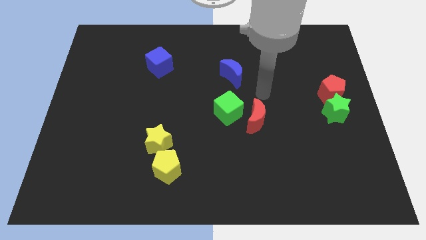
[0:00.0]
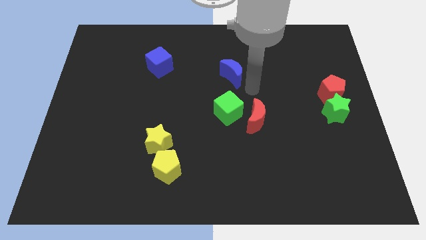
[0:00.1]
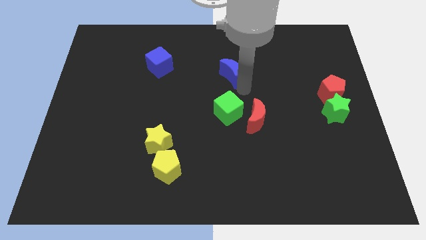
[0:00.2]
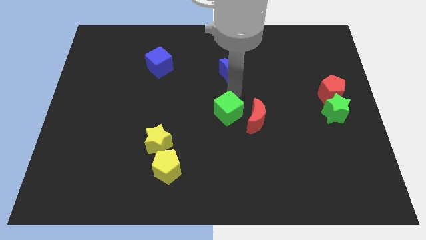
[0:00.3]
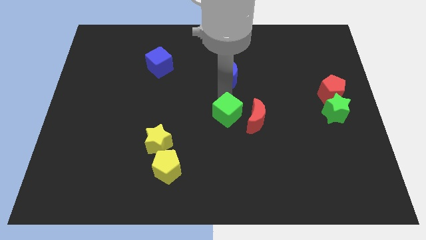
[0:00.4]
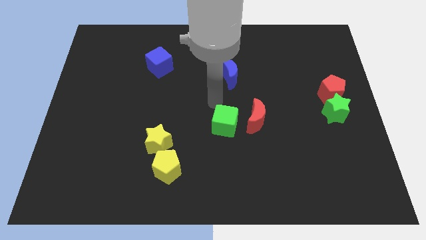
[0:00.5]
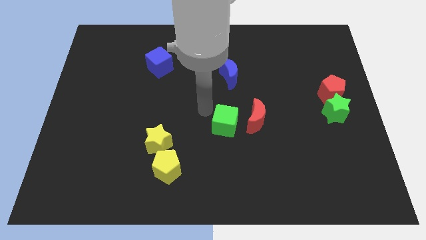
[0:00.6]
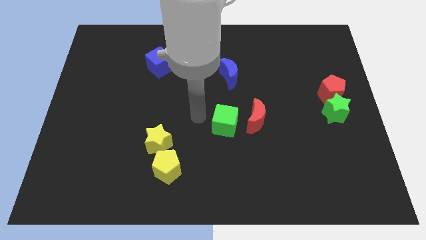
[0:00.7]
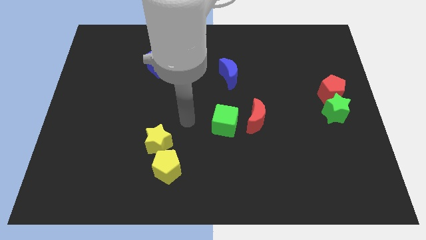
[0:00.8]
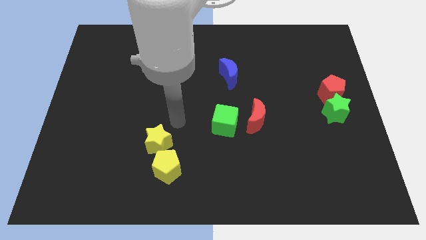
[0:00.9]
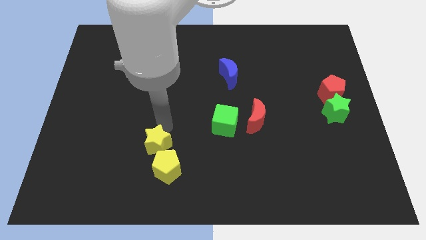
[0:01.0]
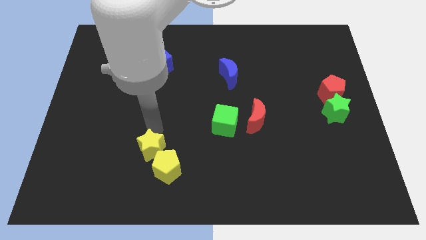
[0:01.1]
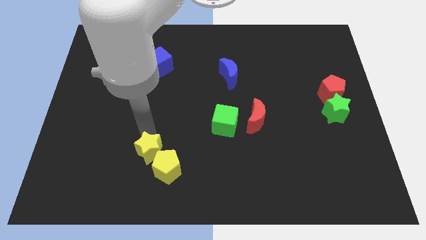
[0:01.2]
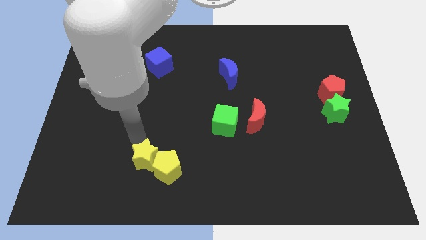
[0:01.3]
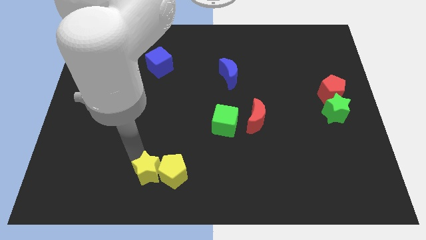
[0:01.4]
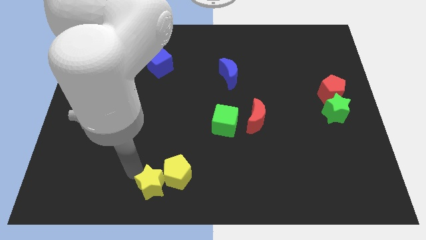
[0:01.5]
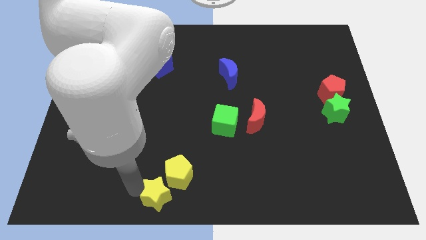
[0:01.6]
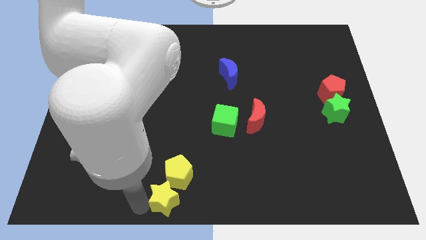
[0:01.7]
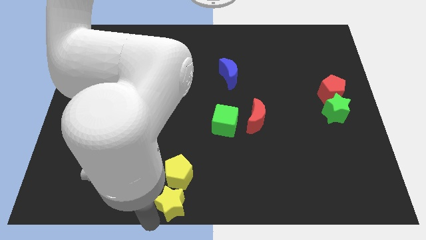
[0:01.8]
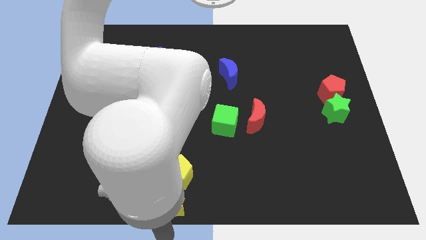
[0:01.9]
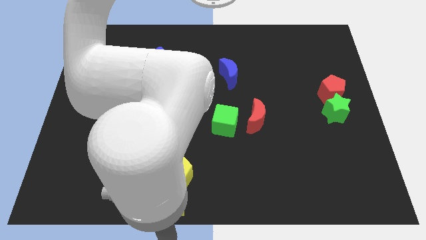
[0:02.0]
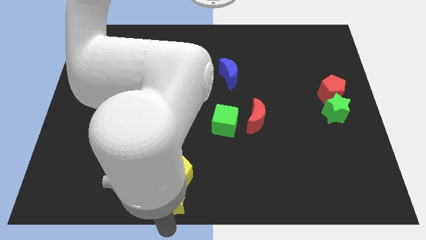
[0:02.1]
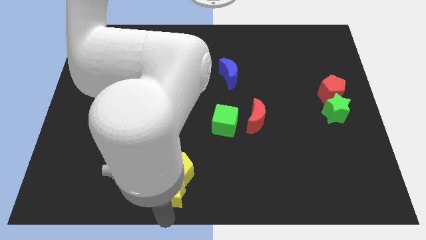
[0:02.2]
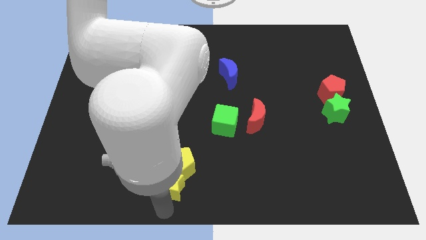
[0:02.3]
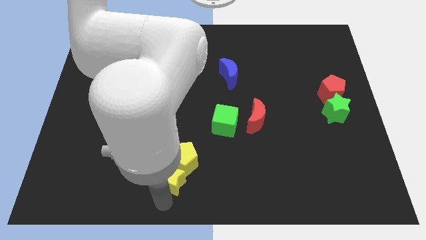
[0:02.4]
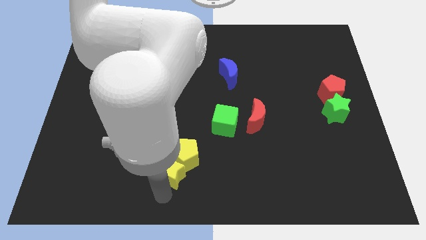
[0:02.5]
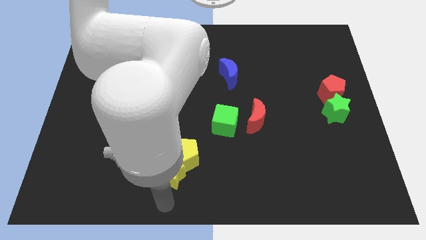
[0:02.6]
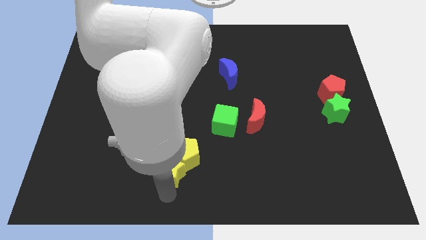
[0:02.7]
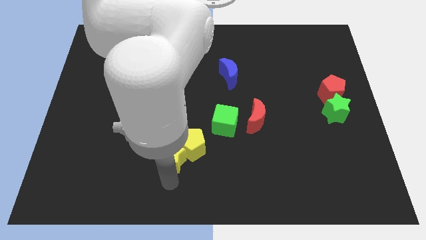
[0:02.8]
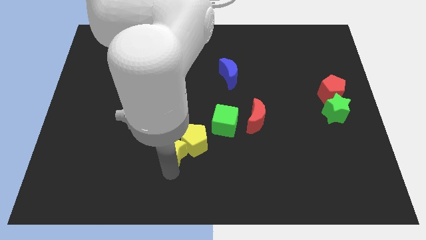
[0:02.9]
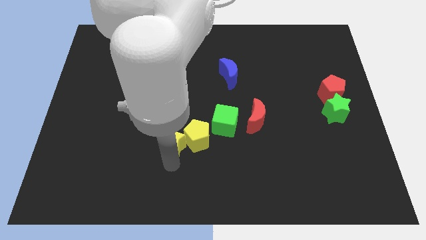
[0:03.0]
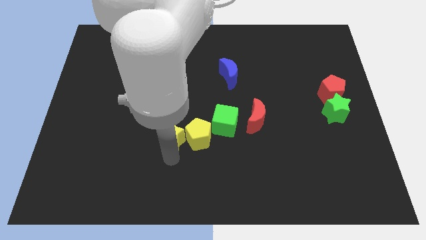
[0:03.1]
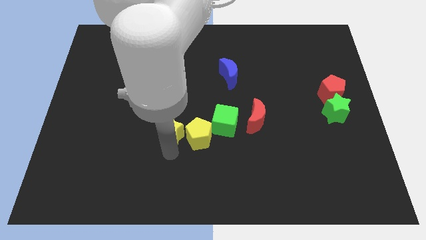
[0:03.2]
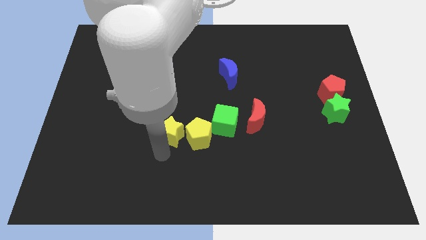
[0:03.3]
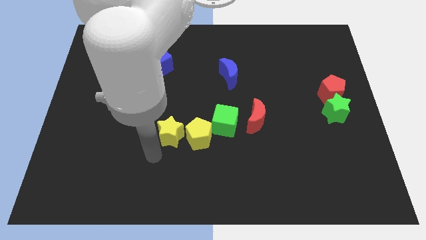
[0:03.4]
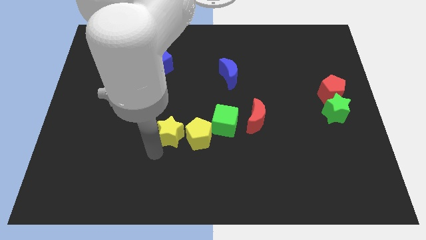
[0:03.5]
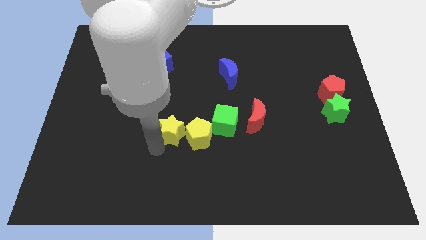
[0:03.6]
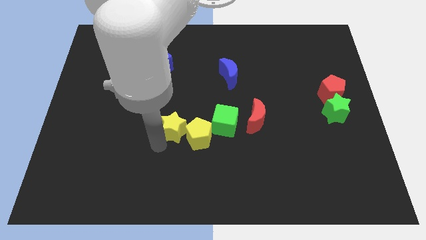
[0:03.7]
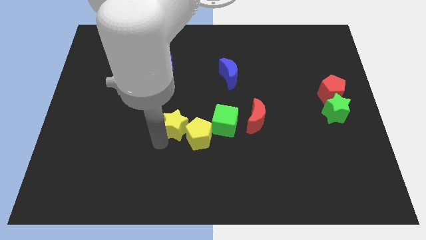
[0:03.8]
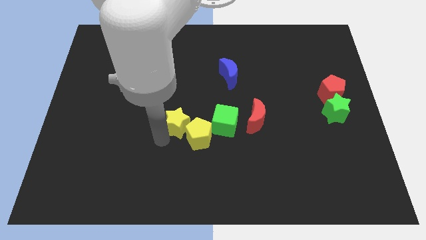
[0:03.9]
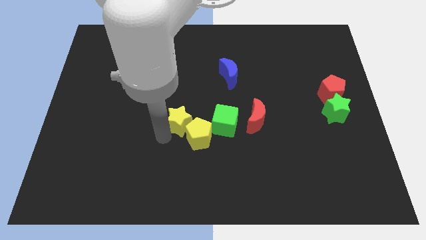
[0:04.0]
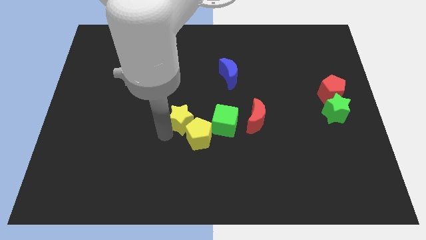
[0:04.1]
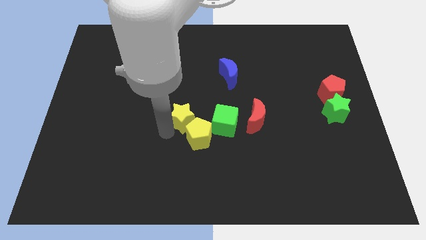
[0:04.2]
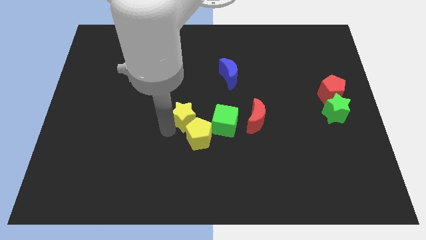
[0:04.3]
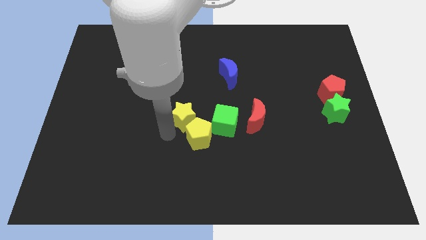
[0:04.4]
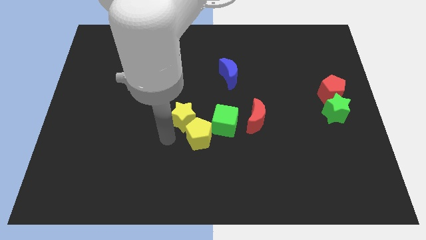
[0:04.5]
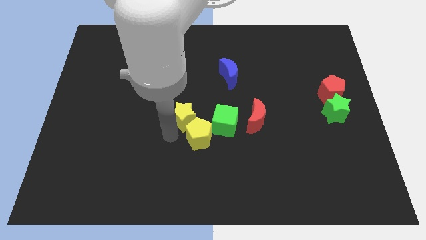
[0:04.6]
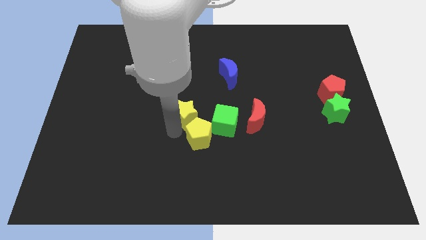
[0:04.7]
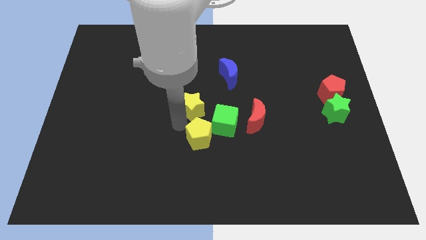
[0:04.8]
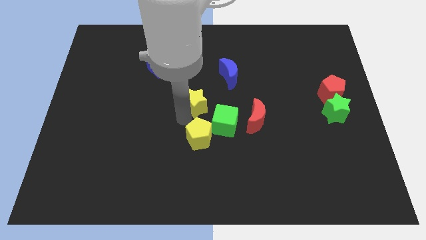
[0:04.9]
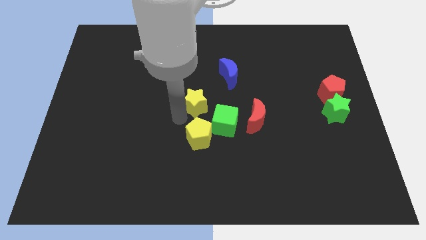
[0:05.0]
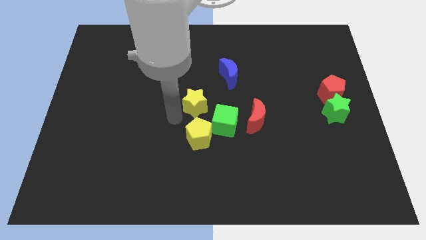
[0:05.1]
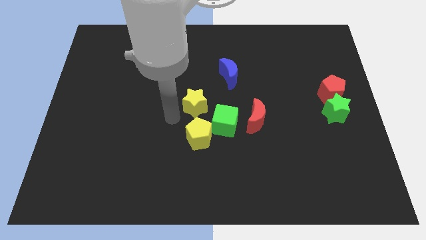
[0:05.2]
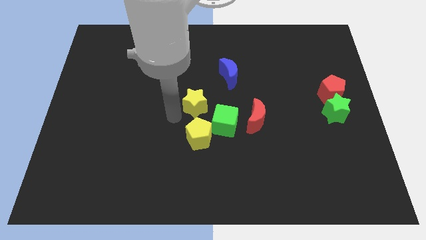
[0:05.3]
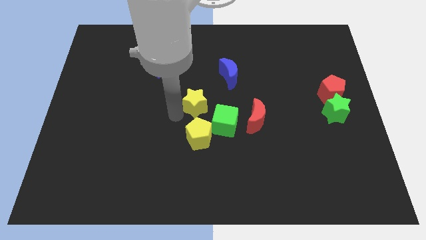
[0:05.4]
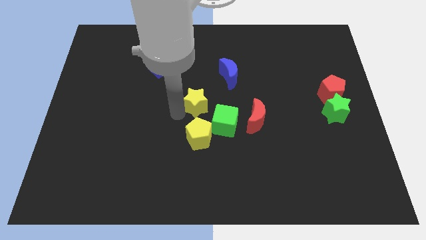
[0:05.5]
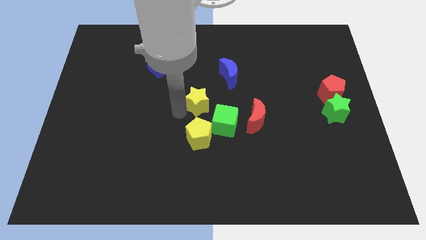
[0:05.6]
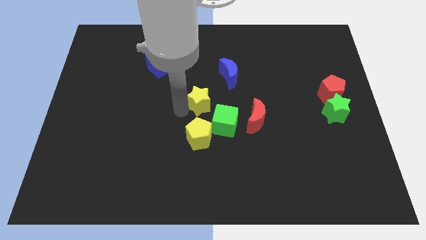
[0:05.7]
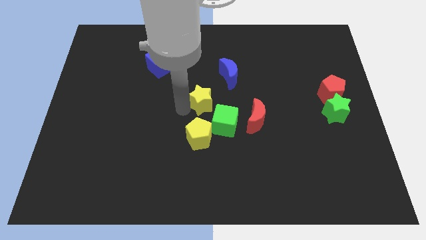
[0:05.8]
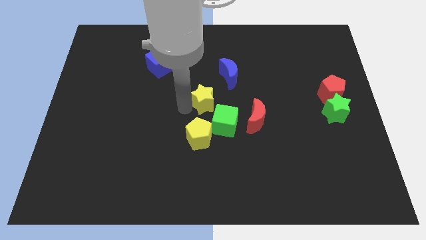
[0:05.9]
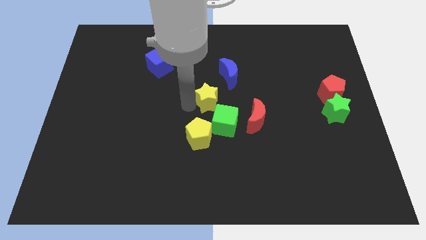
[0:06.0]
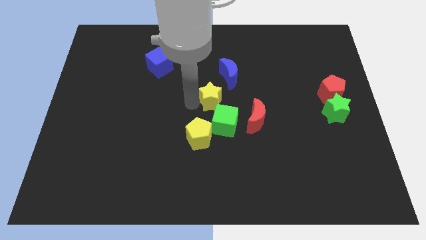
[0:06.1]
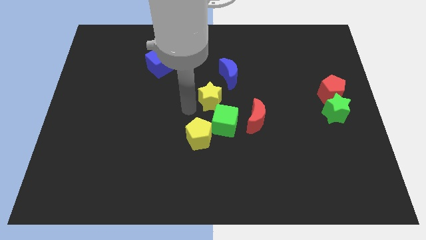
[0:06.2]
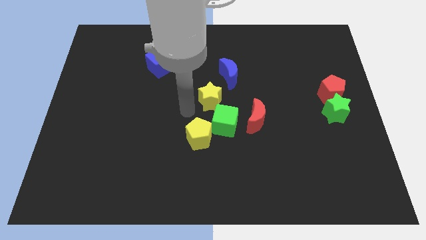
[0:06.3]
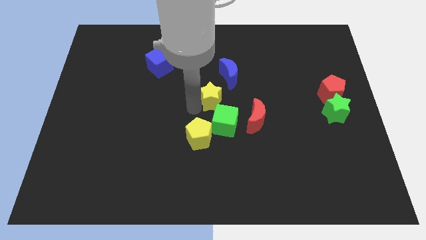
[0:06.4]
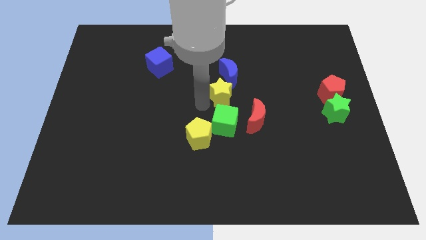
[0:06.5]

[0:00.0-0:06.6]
slide the yellow star diagonally upwards and right

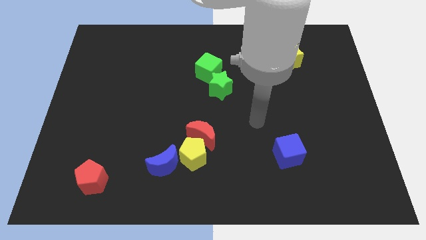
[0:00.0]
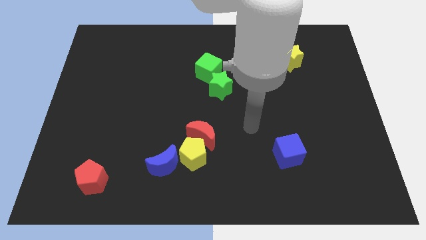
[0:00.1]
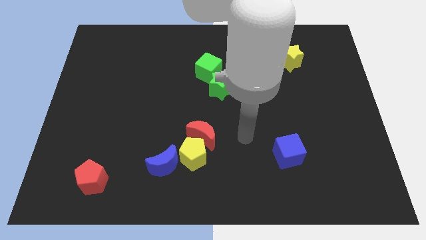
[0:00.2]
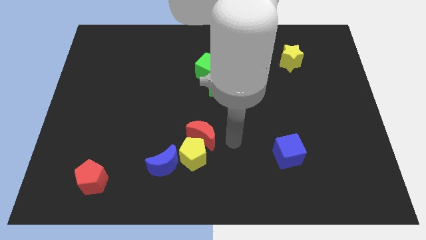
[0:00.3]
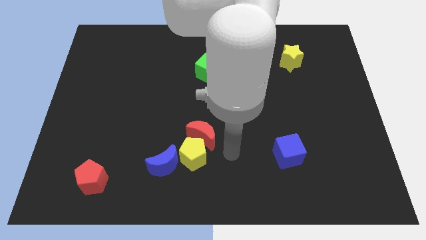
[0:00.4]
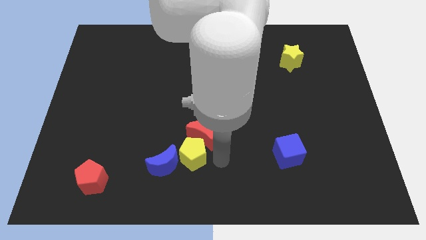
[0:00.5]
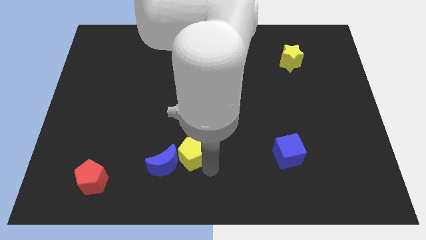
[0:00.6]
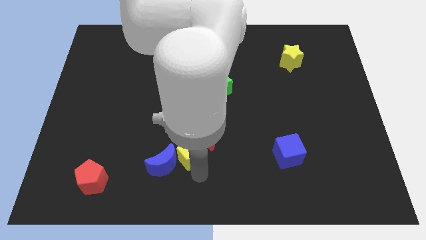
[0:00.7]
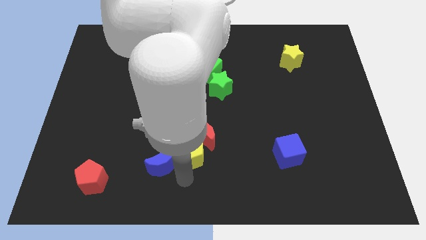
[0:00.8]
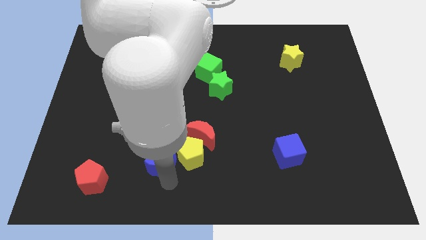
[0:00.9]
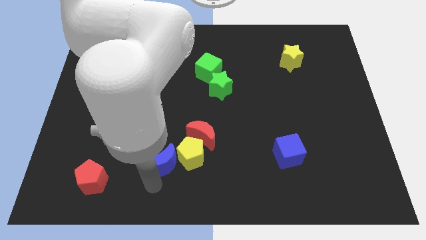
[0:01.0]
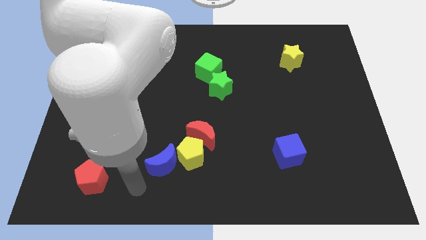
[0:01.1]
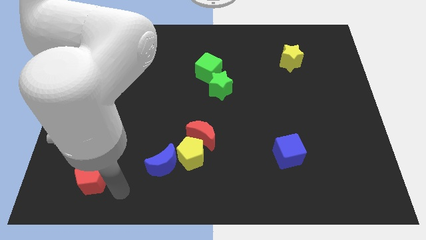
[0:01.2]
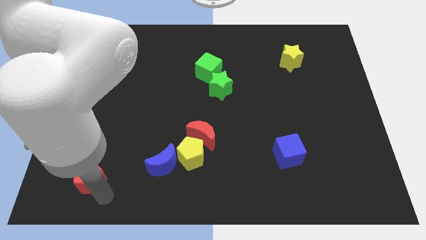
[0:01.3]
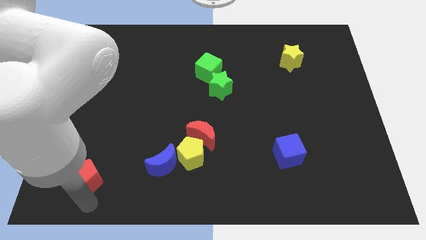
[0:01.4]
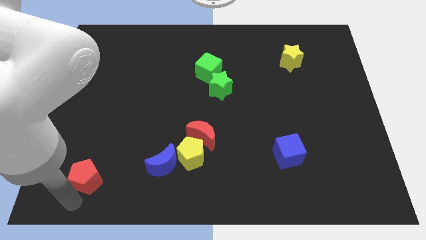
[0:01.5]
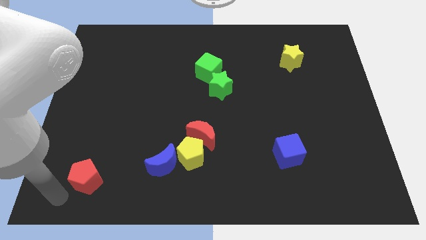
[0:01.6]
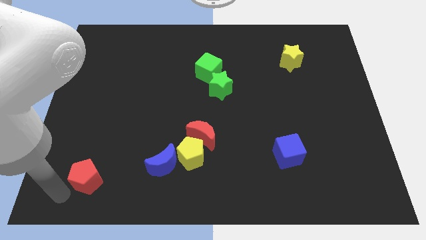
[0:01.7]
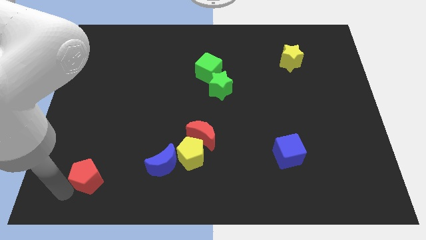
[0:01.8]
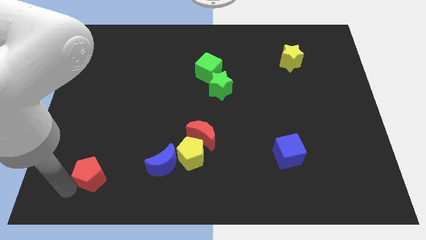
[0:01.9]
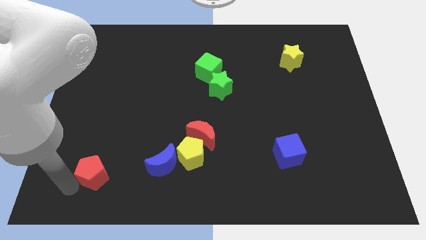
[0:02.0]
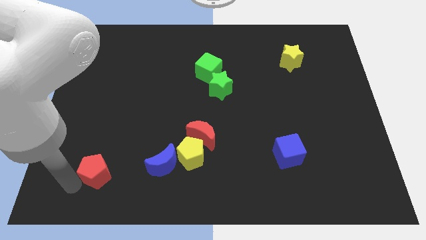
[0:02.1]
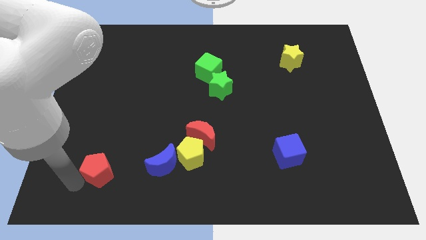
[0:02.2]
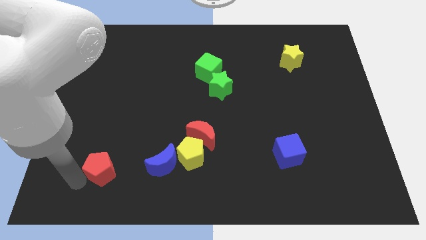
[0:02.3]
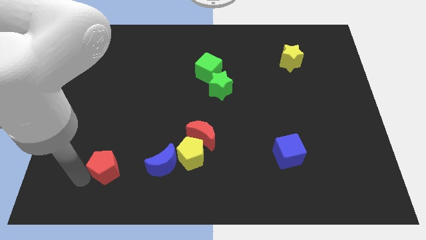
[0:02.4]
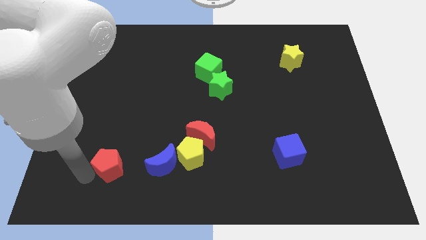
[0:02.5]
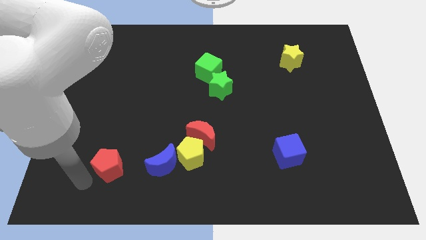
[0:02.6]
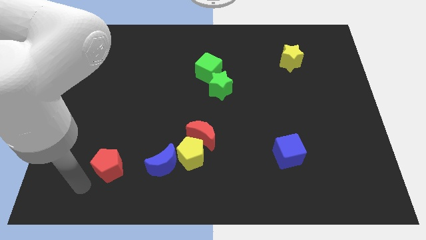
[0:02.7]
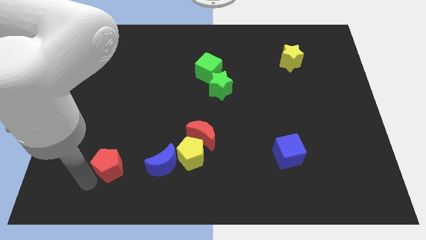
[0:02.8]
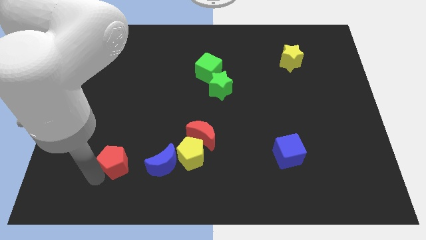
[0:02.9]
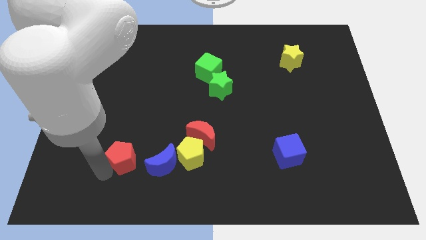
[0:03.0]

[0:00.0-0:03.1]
slide the red pentagon slightly upwards and then to the right
